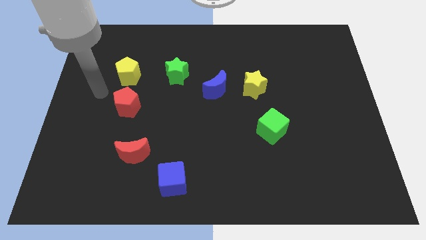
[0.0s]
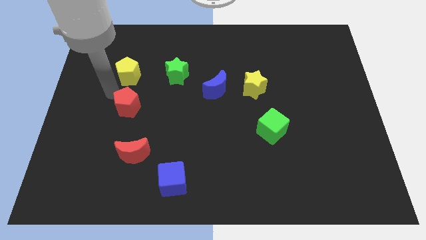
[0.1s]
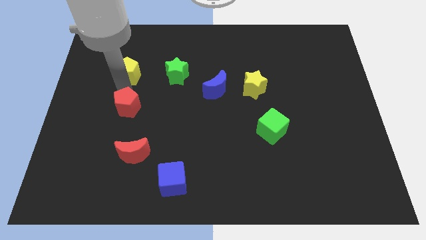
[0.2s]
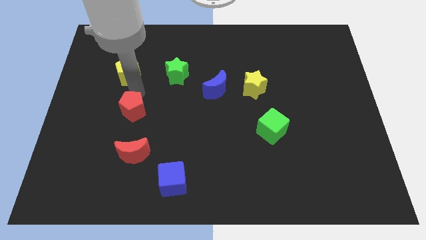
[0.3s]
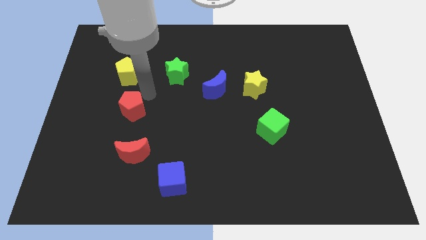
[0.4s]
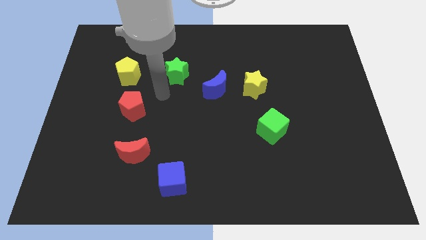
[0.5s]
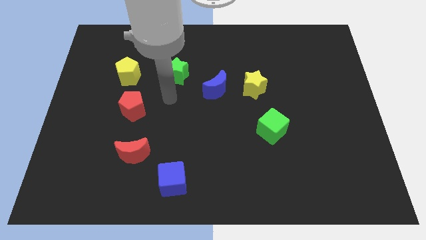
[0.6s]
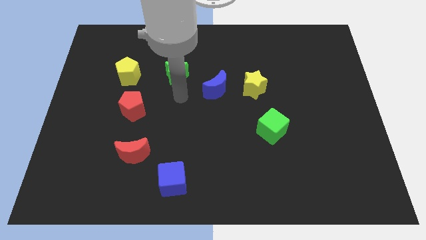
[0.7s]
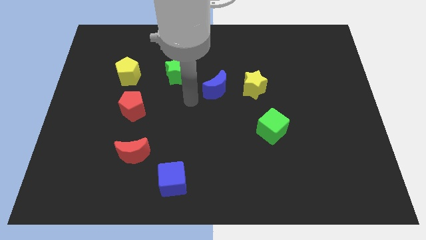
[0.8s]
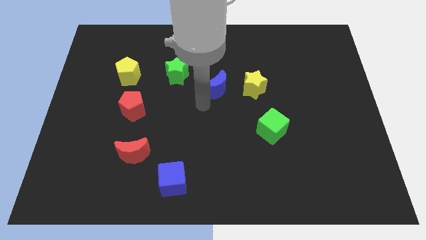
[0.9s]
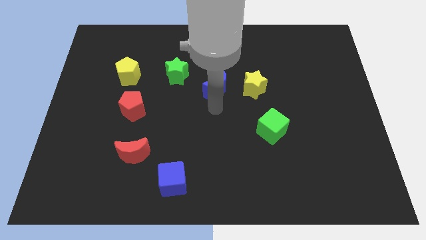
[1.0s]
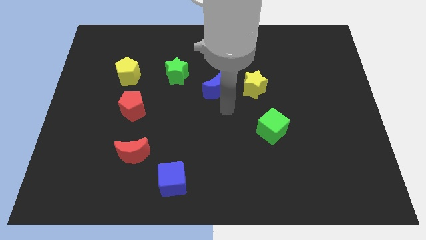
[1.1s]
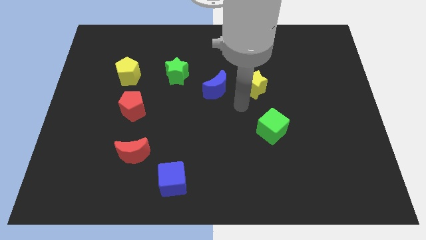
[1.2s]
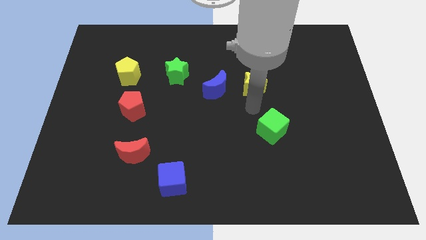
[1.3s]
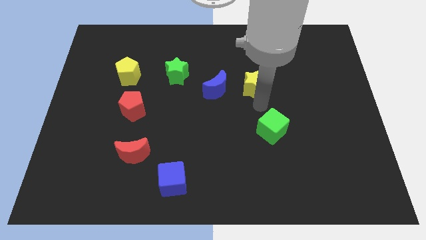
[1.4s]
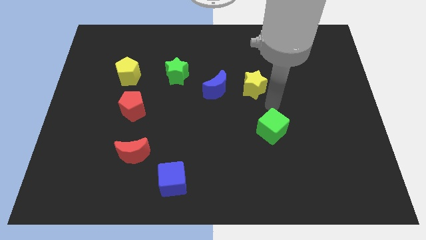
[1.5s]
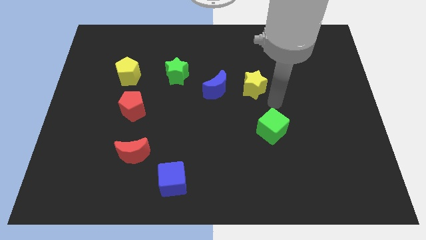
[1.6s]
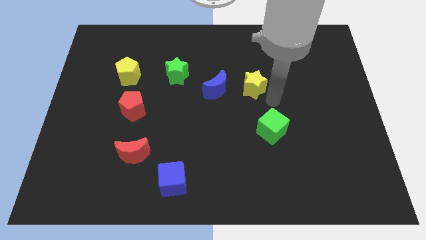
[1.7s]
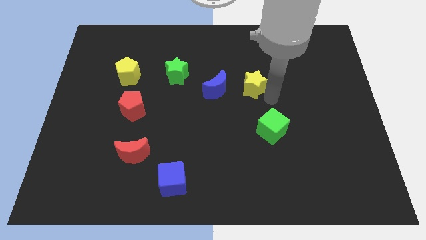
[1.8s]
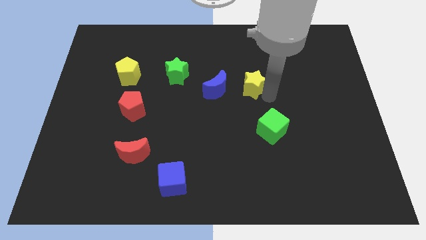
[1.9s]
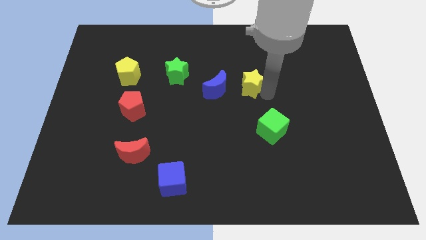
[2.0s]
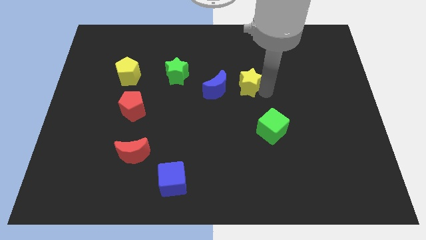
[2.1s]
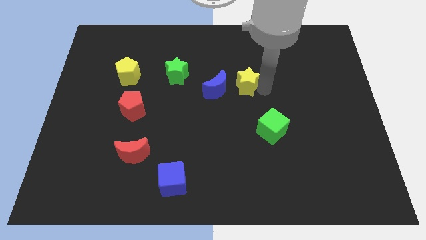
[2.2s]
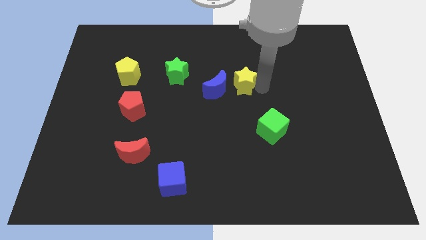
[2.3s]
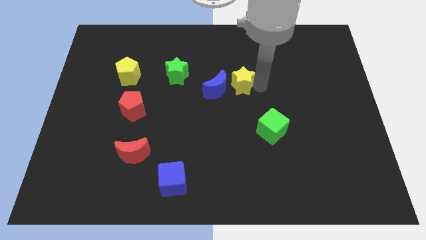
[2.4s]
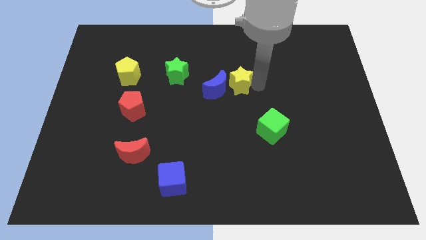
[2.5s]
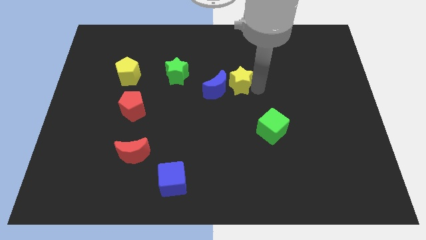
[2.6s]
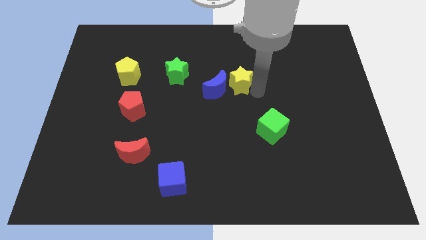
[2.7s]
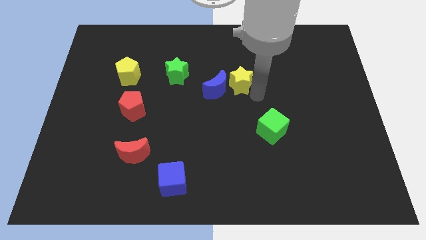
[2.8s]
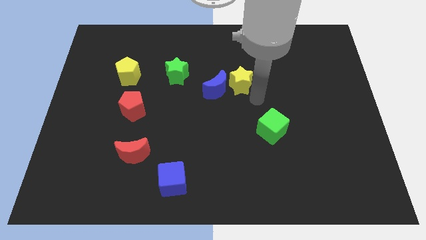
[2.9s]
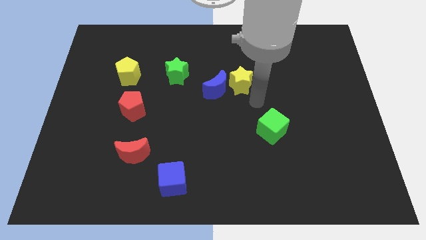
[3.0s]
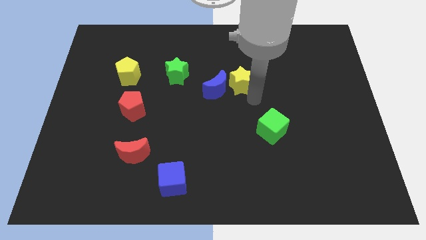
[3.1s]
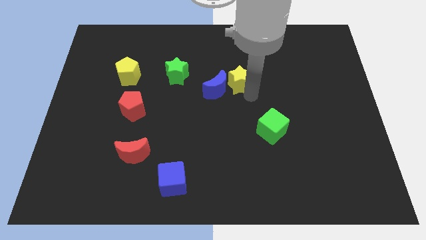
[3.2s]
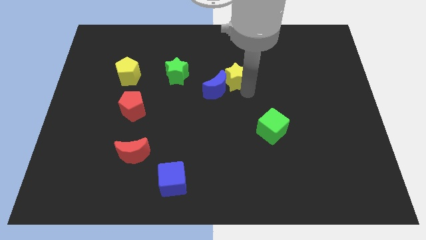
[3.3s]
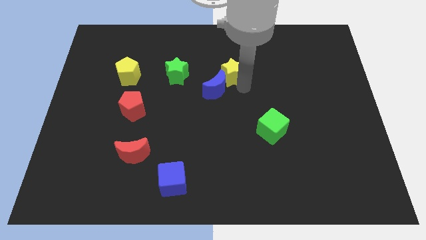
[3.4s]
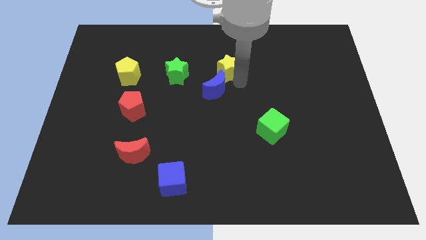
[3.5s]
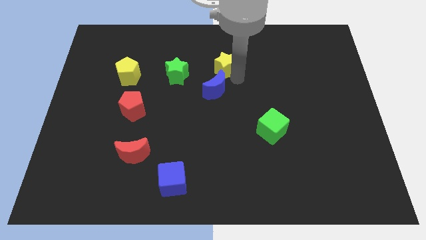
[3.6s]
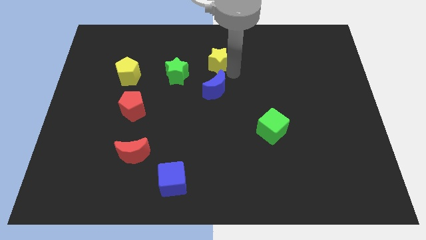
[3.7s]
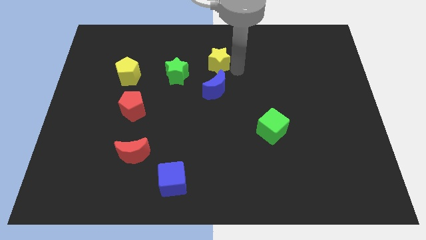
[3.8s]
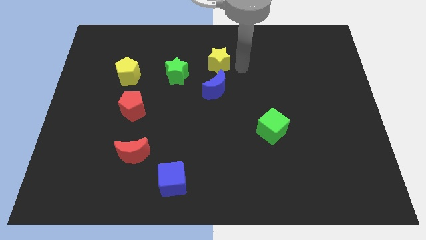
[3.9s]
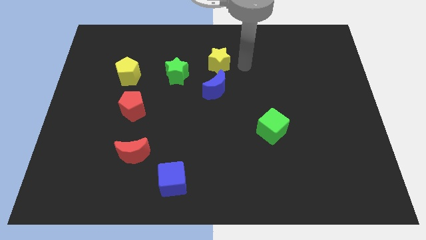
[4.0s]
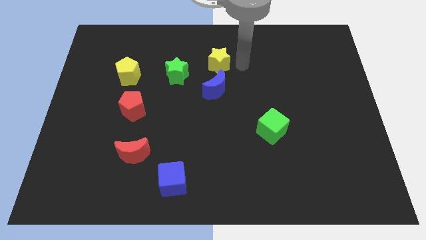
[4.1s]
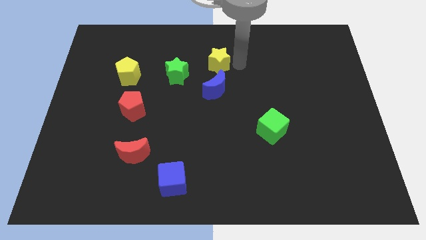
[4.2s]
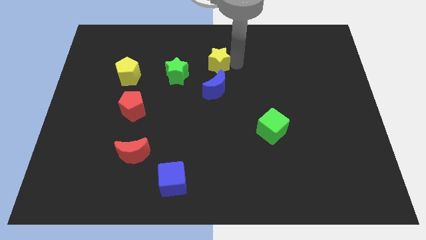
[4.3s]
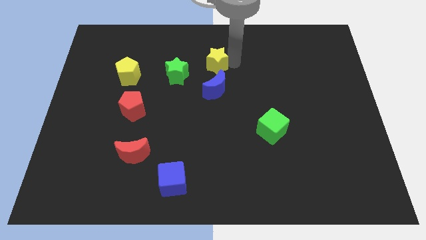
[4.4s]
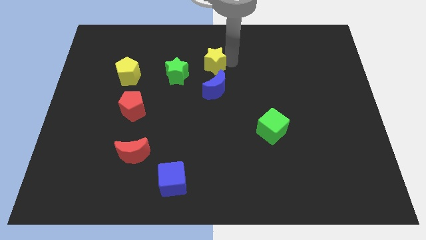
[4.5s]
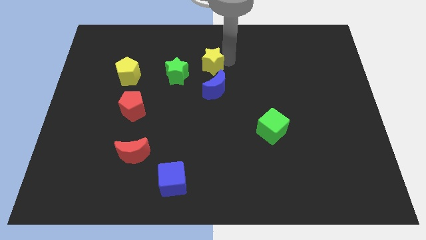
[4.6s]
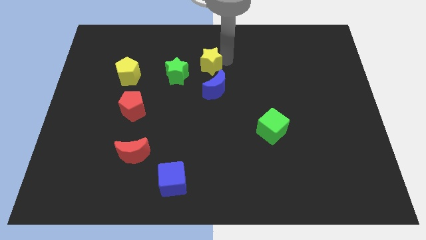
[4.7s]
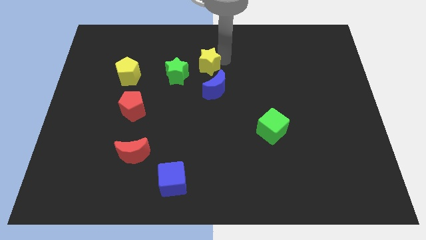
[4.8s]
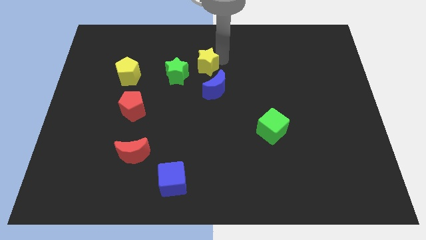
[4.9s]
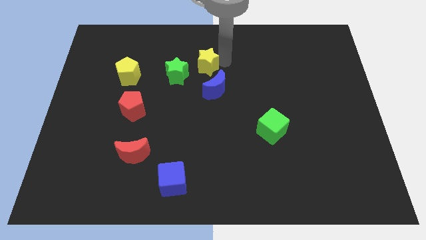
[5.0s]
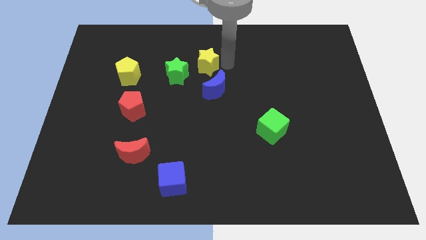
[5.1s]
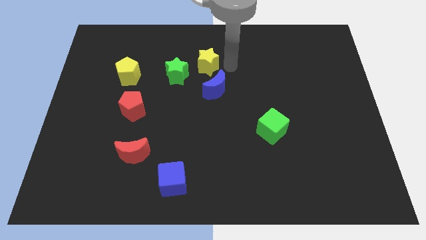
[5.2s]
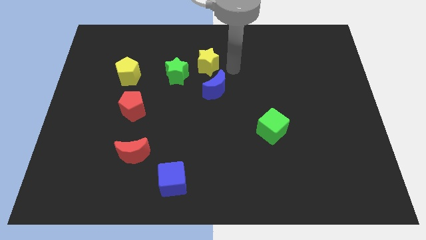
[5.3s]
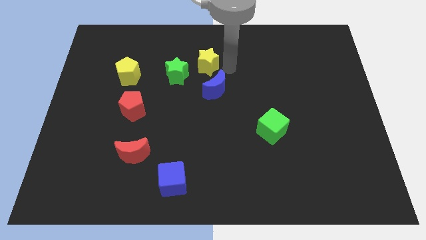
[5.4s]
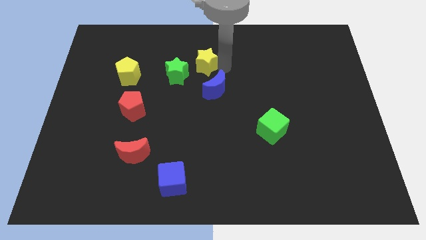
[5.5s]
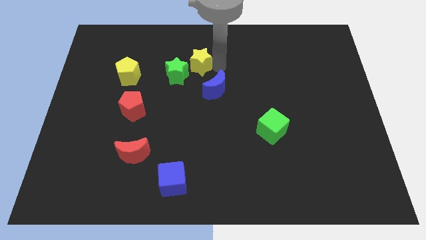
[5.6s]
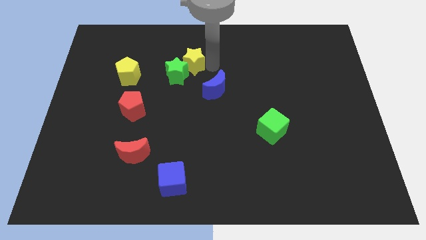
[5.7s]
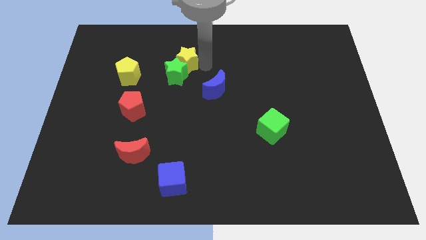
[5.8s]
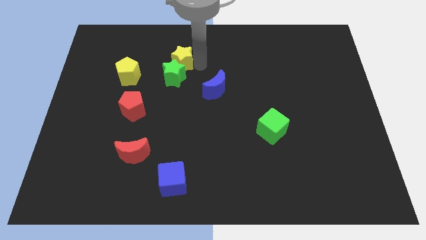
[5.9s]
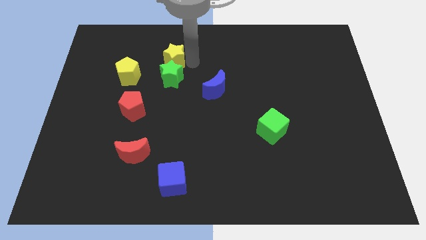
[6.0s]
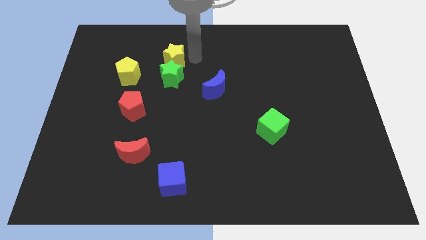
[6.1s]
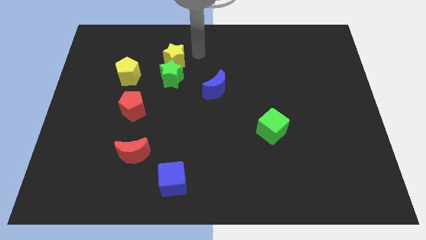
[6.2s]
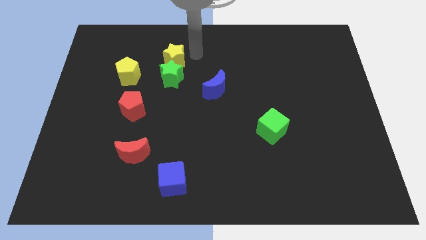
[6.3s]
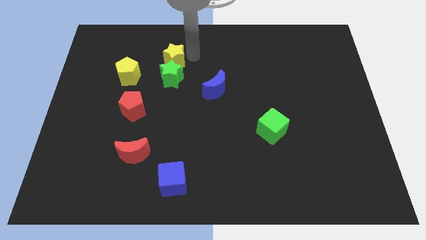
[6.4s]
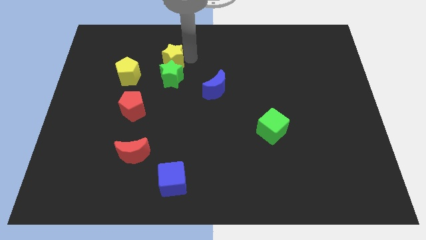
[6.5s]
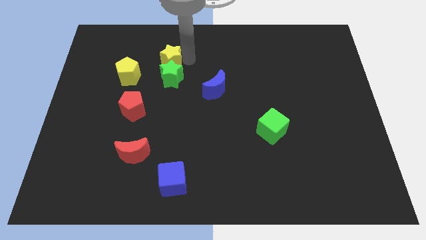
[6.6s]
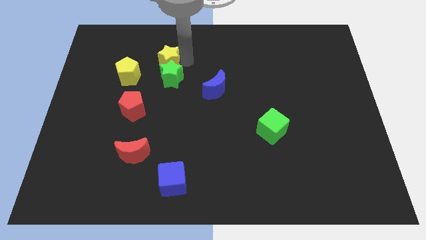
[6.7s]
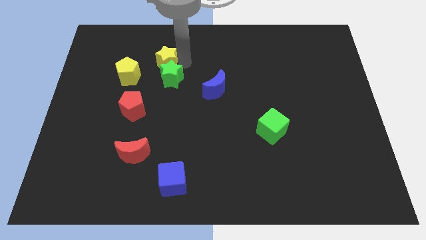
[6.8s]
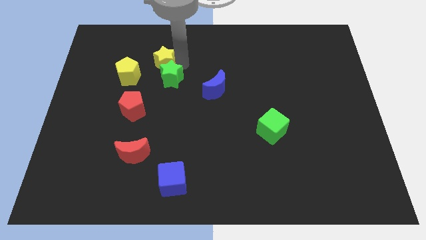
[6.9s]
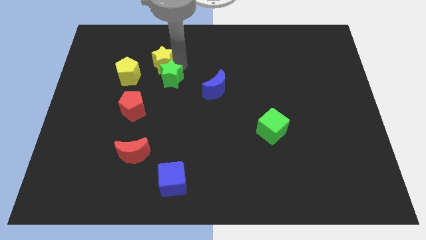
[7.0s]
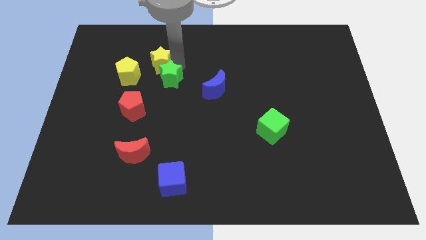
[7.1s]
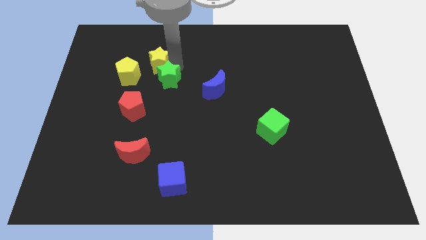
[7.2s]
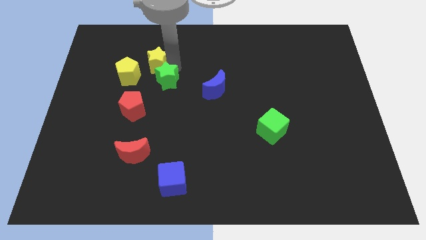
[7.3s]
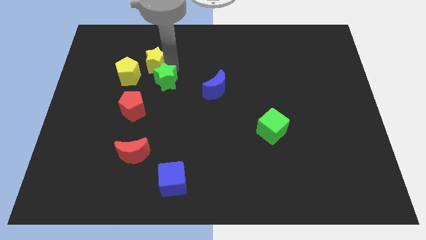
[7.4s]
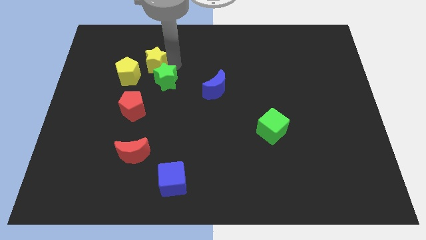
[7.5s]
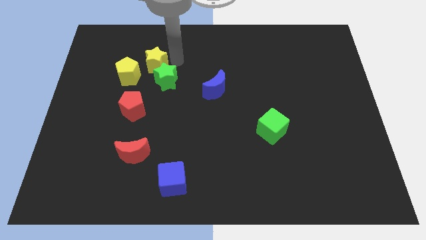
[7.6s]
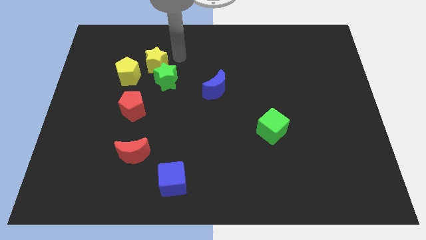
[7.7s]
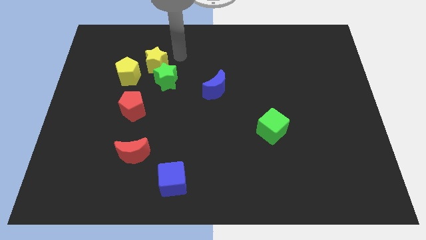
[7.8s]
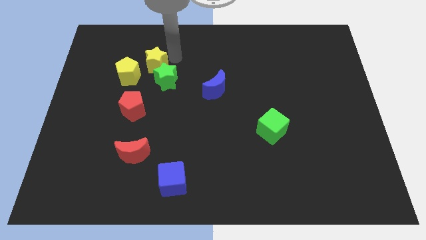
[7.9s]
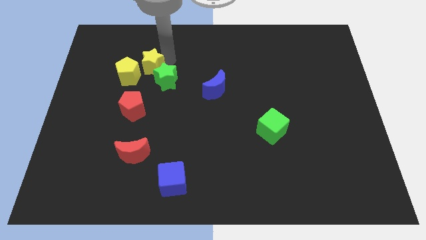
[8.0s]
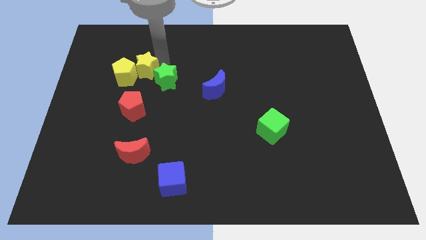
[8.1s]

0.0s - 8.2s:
put the yellow star close to the yellow pentagon
